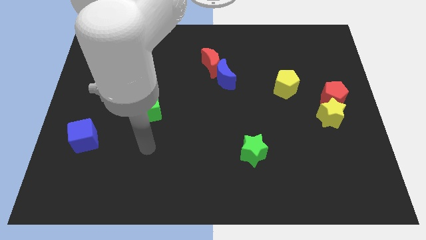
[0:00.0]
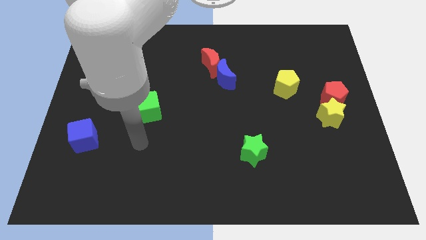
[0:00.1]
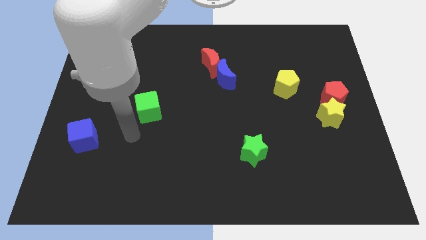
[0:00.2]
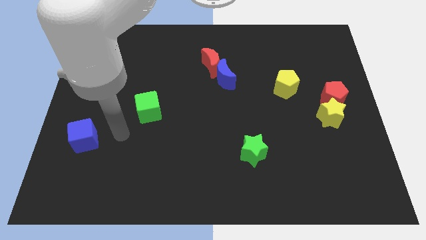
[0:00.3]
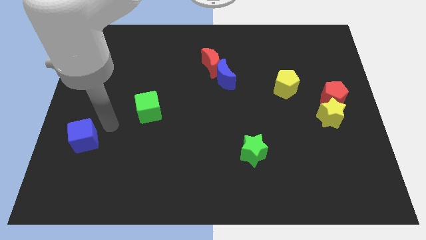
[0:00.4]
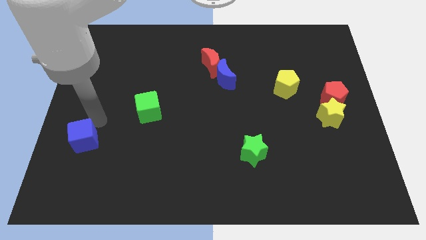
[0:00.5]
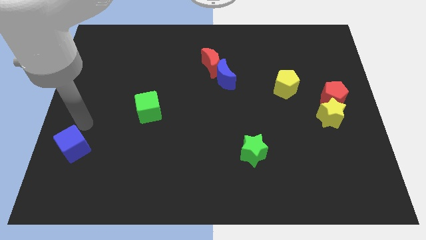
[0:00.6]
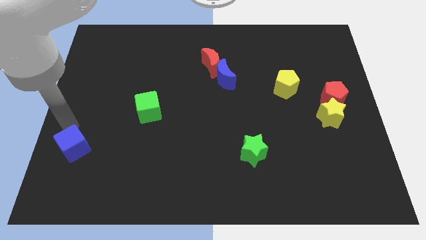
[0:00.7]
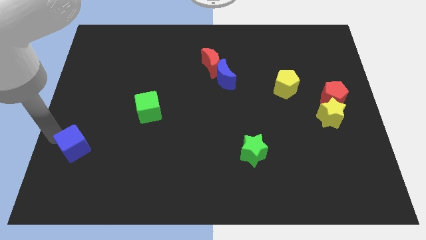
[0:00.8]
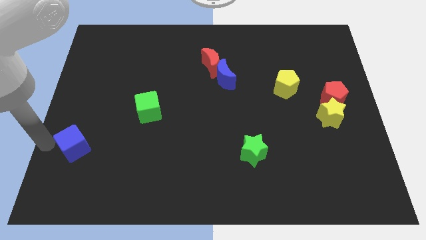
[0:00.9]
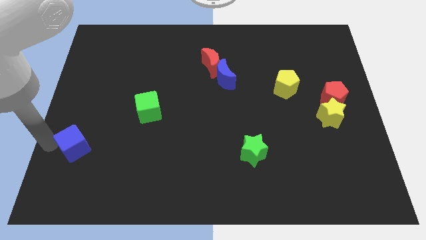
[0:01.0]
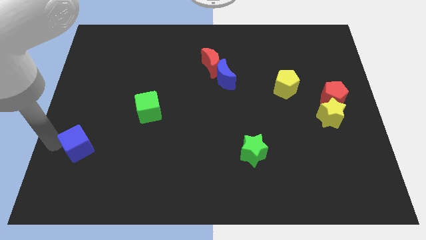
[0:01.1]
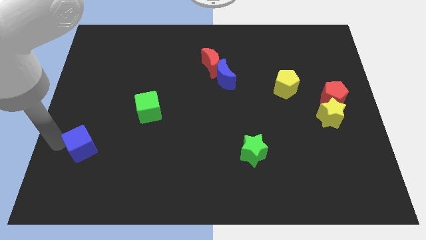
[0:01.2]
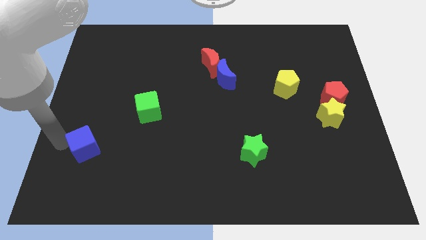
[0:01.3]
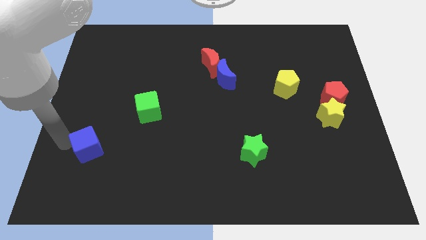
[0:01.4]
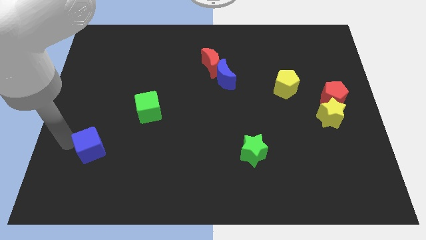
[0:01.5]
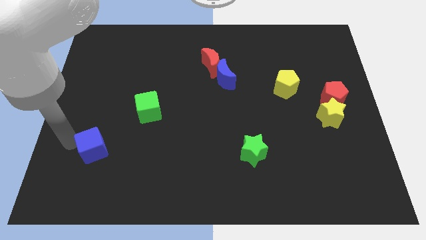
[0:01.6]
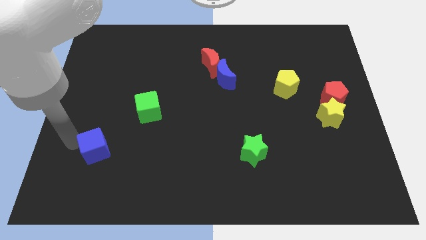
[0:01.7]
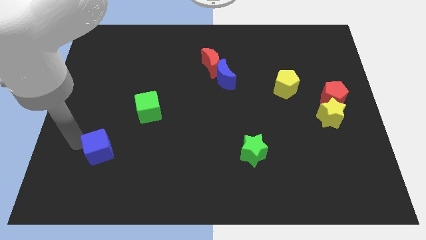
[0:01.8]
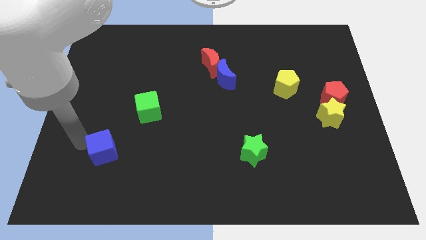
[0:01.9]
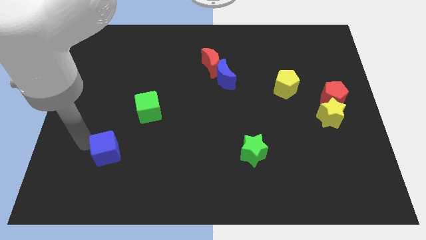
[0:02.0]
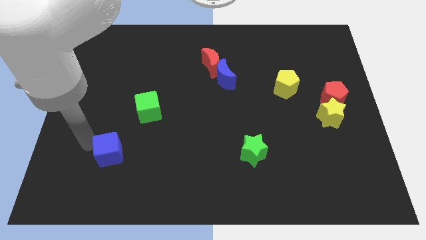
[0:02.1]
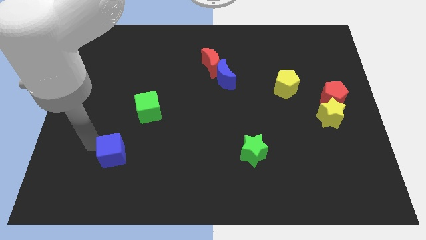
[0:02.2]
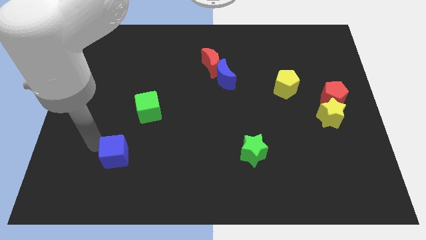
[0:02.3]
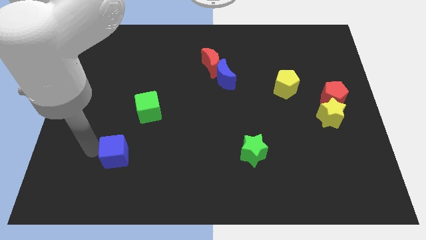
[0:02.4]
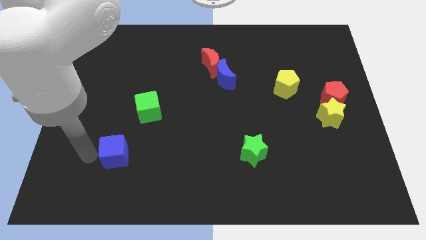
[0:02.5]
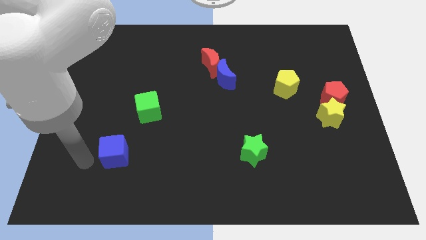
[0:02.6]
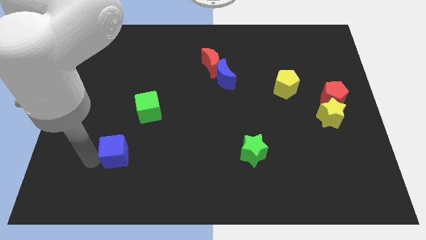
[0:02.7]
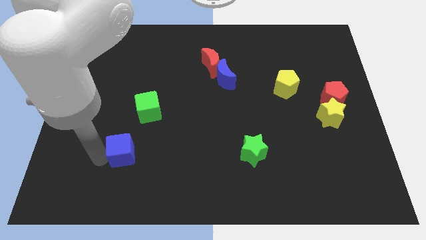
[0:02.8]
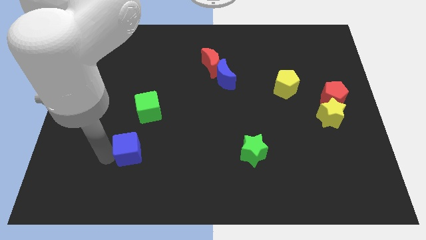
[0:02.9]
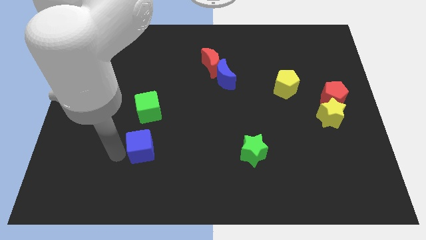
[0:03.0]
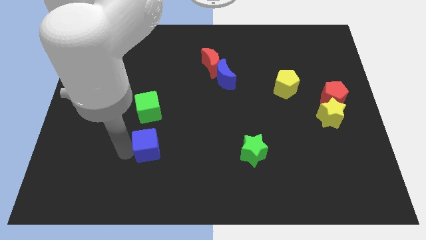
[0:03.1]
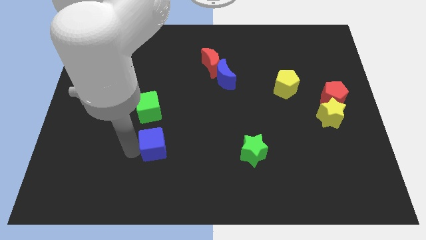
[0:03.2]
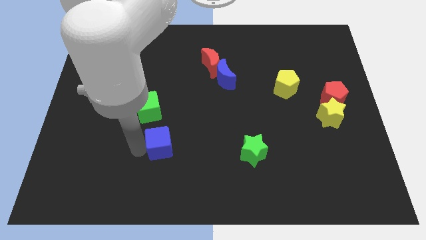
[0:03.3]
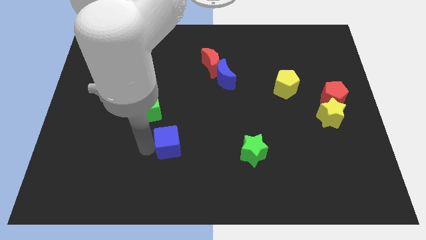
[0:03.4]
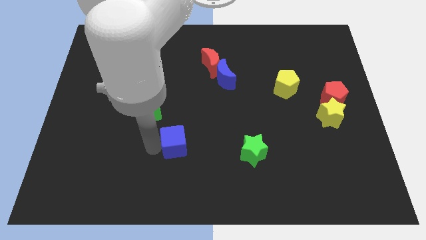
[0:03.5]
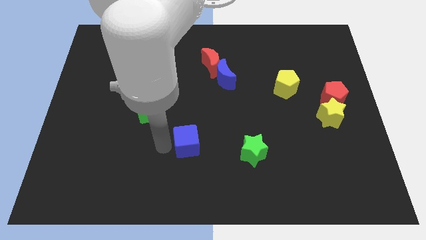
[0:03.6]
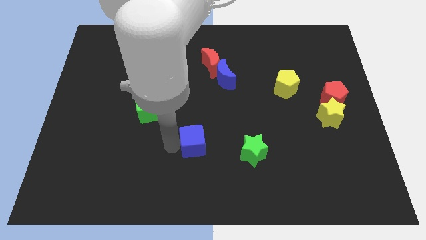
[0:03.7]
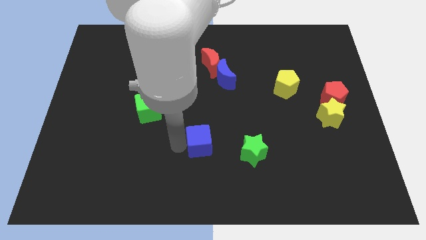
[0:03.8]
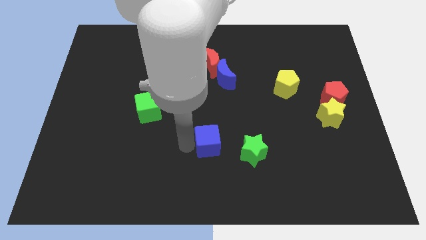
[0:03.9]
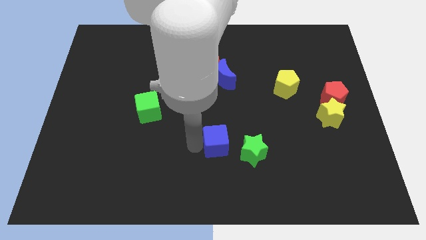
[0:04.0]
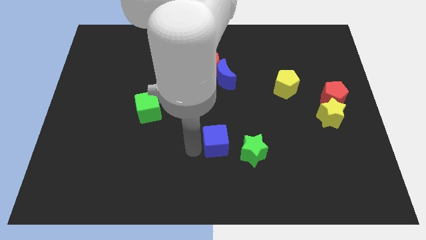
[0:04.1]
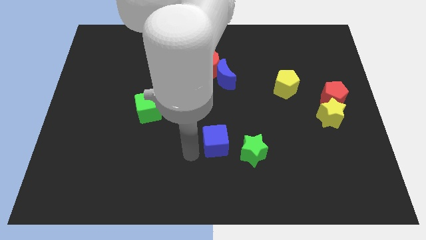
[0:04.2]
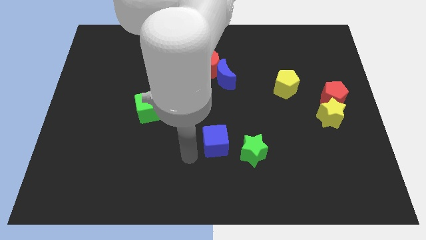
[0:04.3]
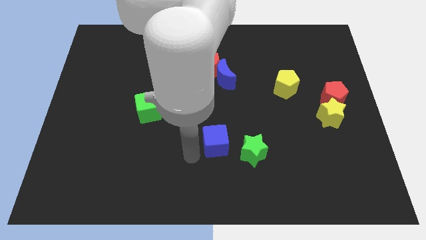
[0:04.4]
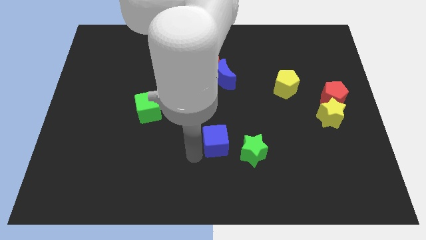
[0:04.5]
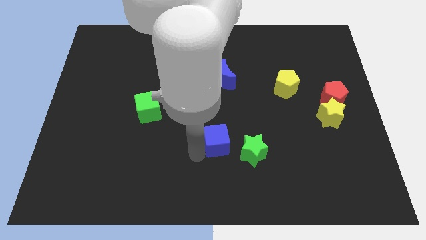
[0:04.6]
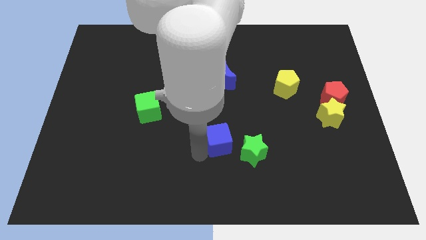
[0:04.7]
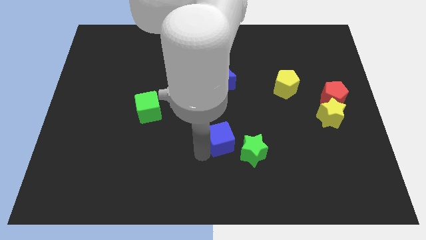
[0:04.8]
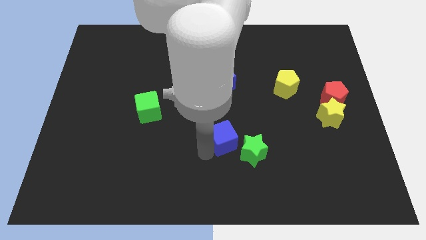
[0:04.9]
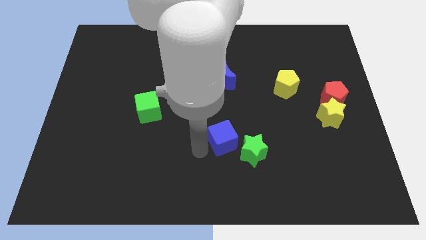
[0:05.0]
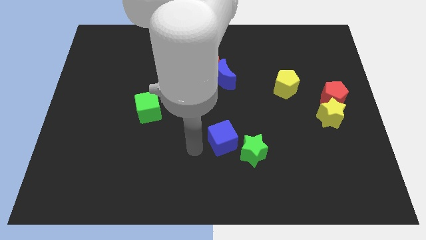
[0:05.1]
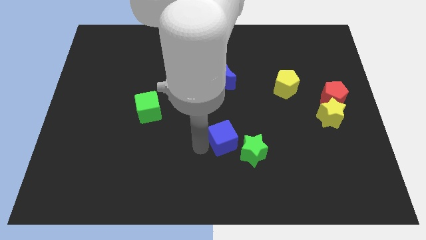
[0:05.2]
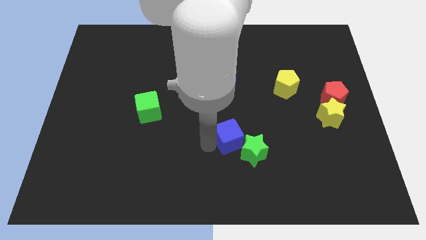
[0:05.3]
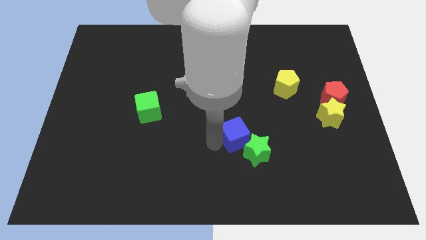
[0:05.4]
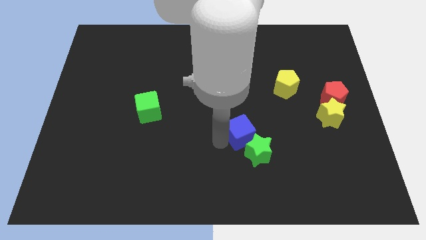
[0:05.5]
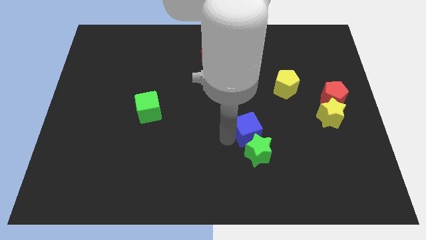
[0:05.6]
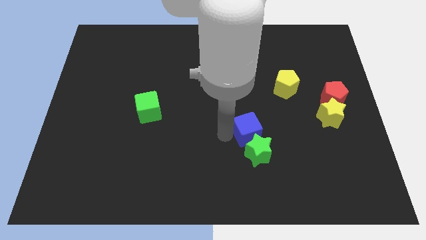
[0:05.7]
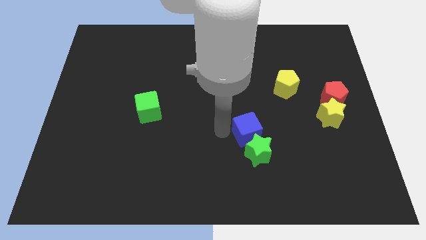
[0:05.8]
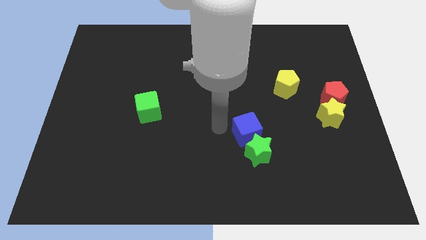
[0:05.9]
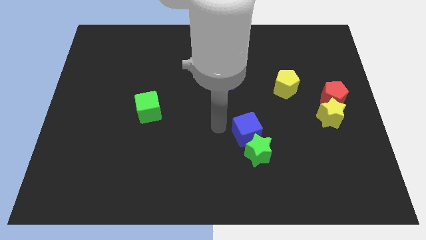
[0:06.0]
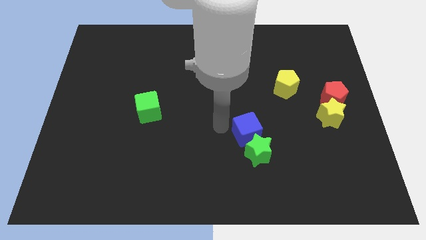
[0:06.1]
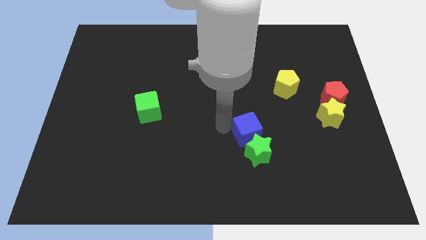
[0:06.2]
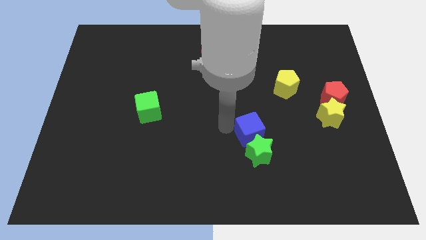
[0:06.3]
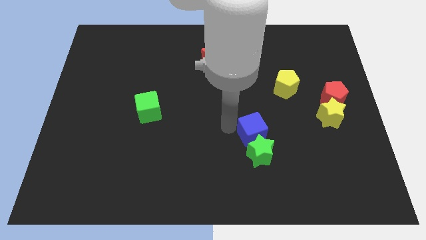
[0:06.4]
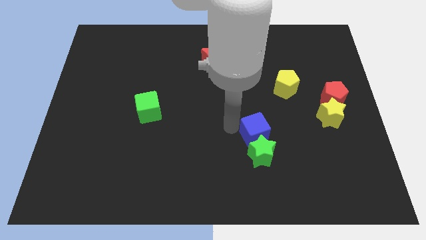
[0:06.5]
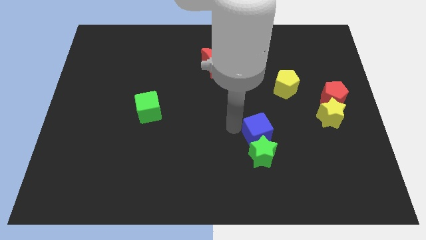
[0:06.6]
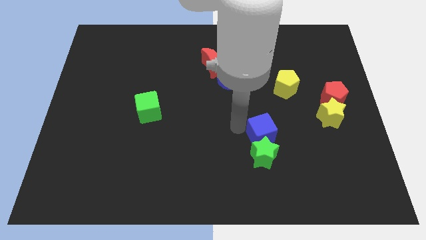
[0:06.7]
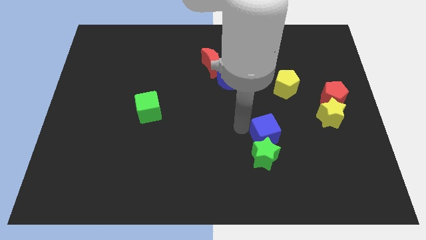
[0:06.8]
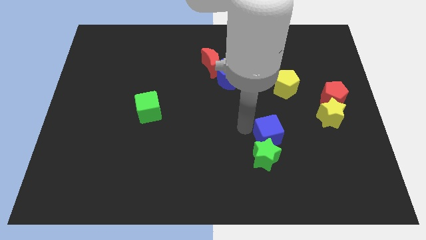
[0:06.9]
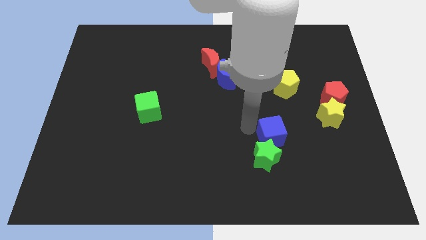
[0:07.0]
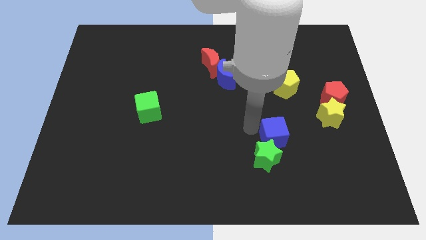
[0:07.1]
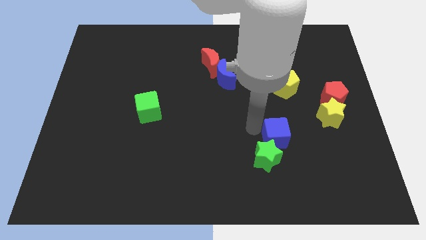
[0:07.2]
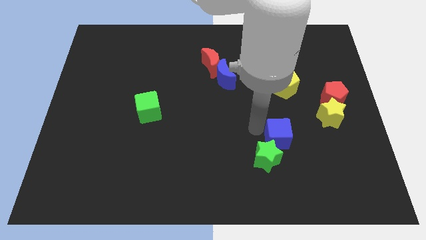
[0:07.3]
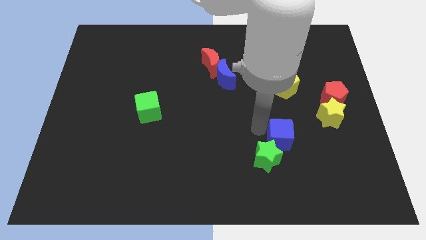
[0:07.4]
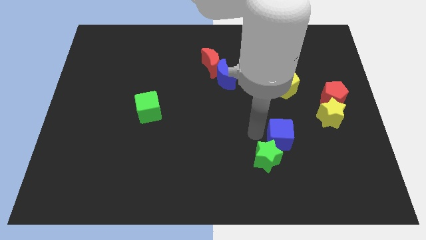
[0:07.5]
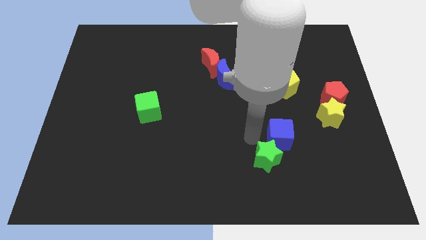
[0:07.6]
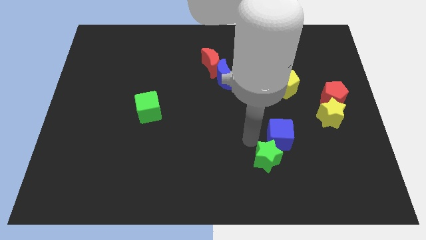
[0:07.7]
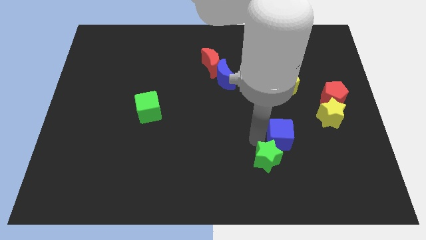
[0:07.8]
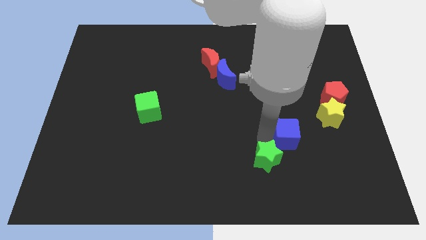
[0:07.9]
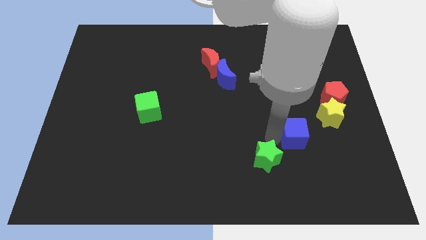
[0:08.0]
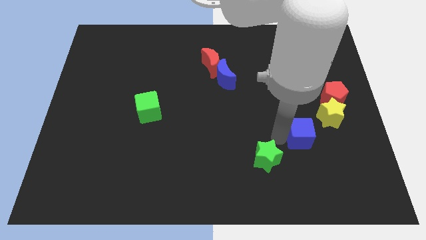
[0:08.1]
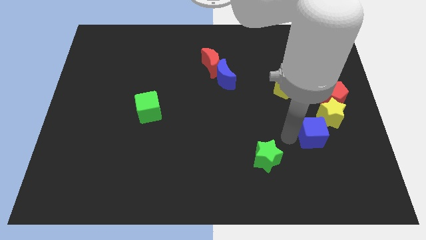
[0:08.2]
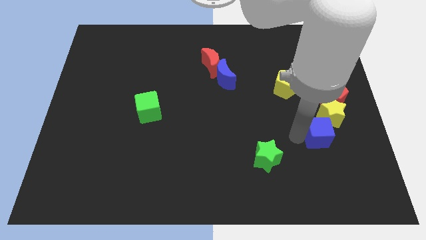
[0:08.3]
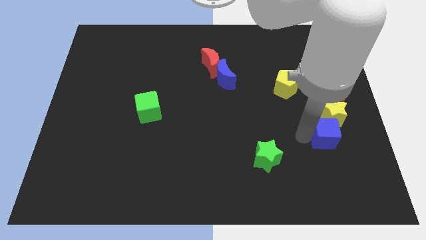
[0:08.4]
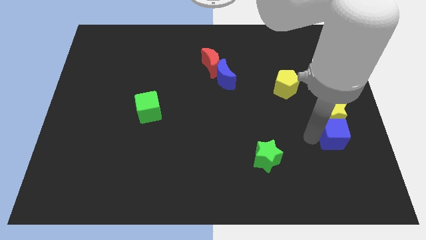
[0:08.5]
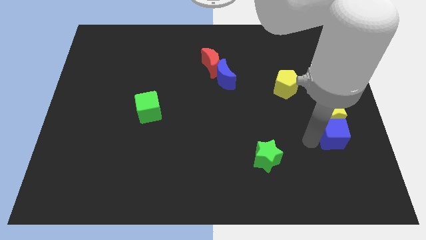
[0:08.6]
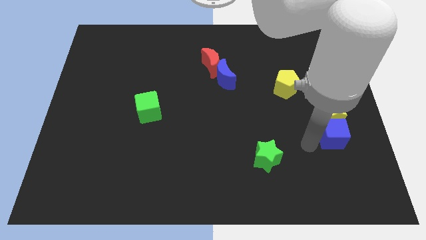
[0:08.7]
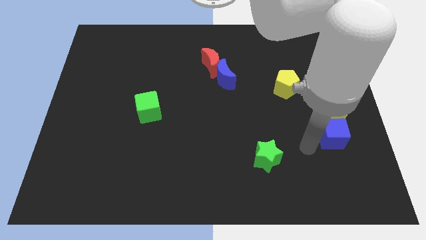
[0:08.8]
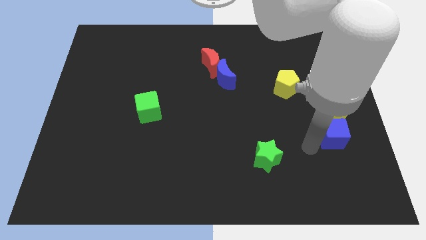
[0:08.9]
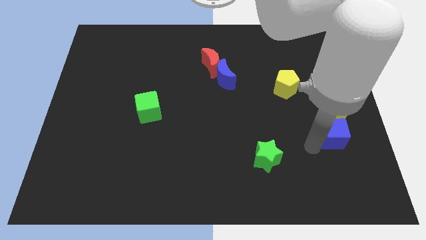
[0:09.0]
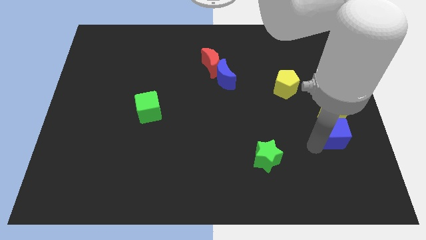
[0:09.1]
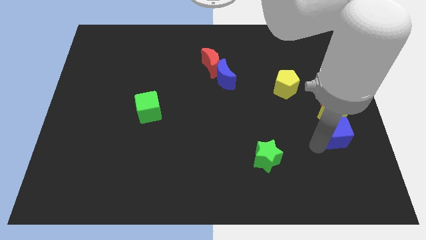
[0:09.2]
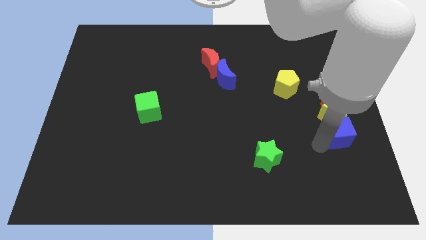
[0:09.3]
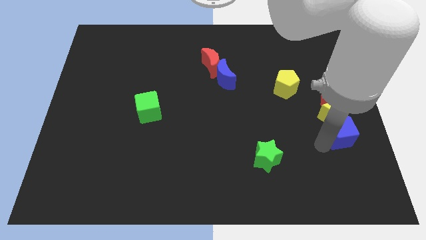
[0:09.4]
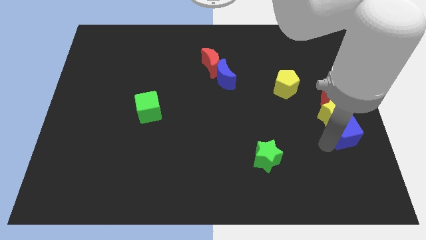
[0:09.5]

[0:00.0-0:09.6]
move the blue cube to the right side
